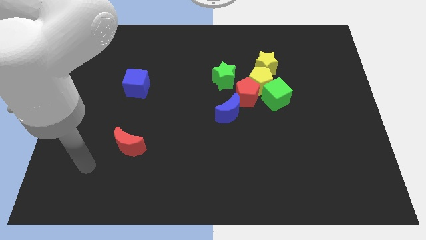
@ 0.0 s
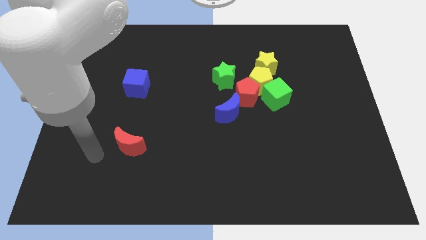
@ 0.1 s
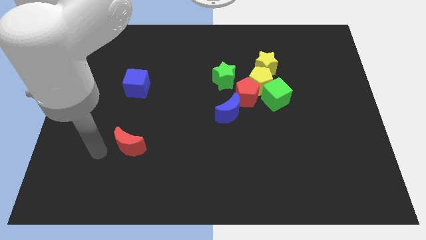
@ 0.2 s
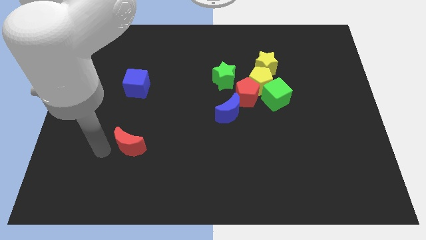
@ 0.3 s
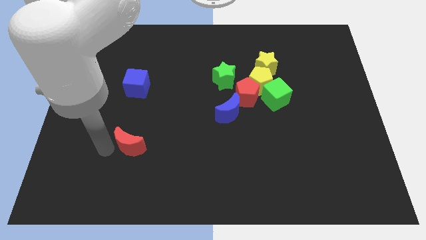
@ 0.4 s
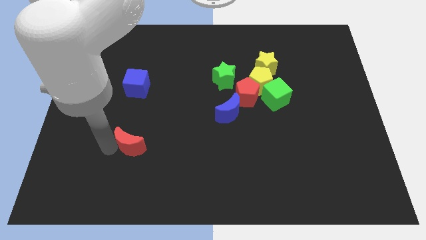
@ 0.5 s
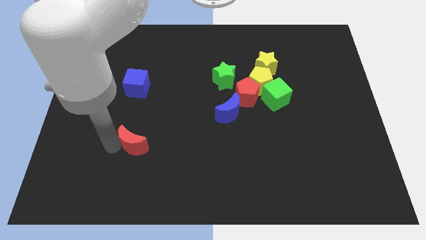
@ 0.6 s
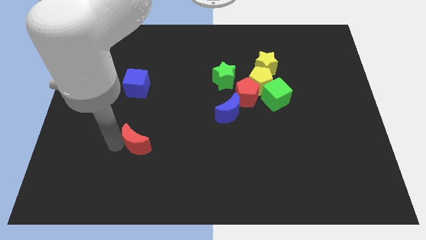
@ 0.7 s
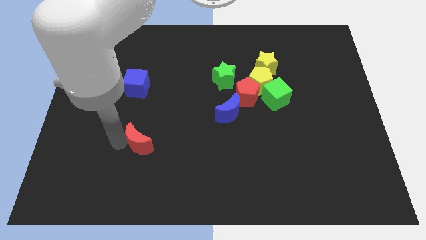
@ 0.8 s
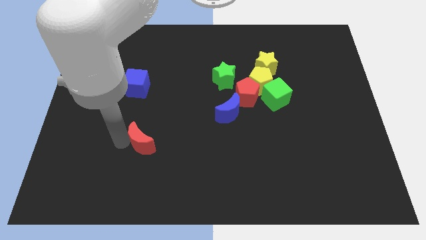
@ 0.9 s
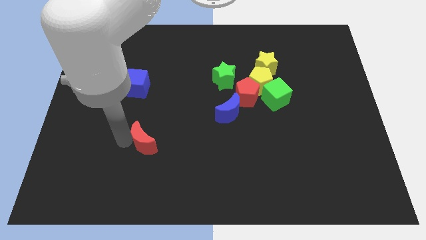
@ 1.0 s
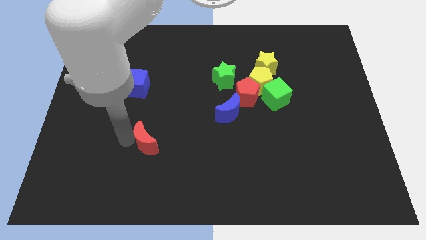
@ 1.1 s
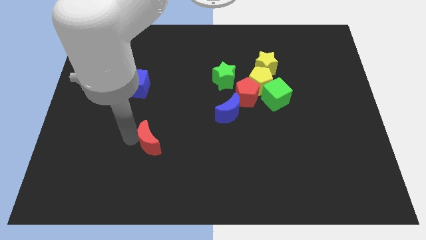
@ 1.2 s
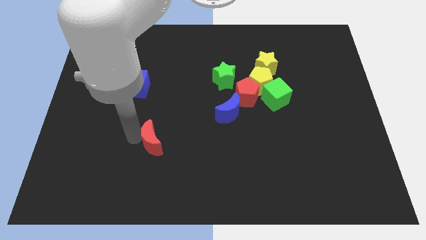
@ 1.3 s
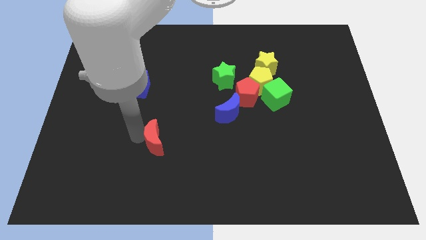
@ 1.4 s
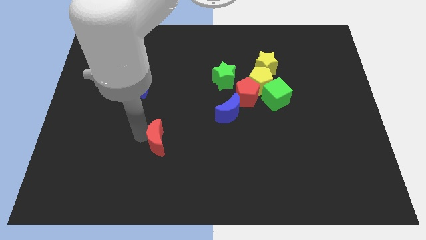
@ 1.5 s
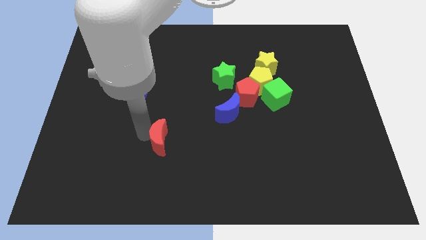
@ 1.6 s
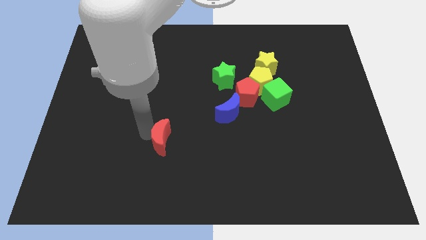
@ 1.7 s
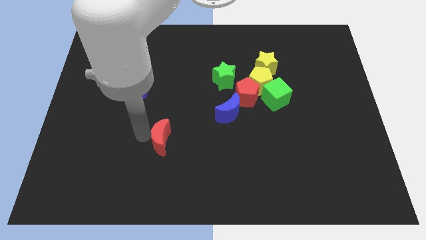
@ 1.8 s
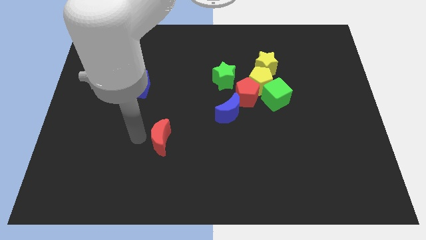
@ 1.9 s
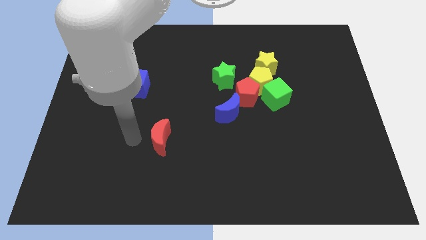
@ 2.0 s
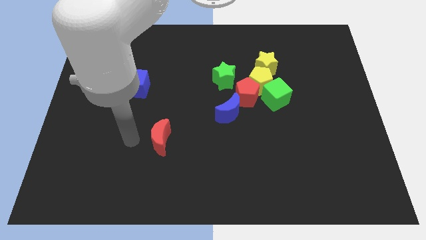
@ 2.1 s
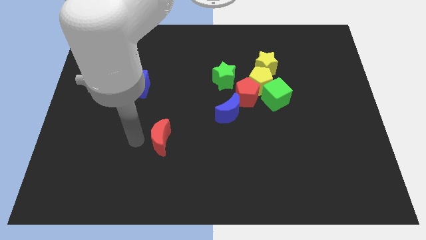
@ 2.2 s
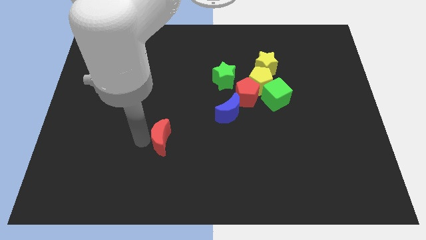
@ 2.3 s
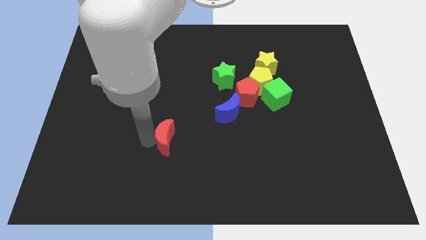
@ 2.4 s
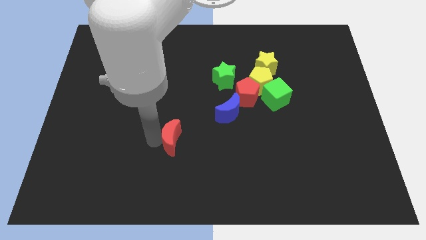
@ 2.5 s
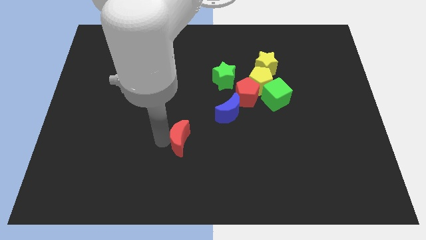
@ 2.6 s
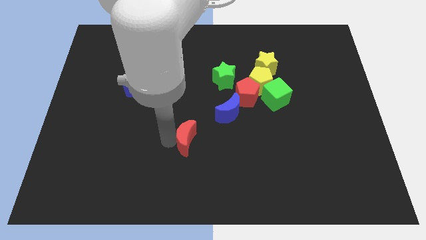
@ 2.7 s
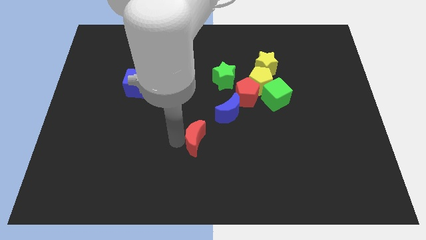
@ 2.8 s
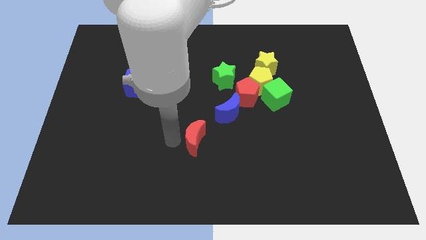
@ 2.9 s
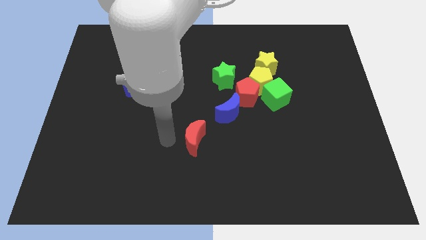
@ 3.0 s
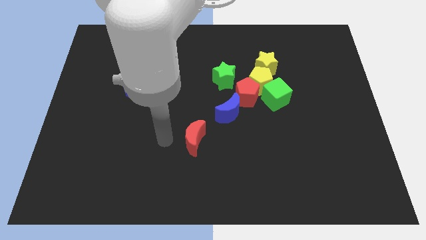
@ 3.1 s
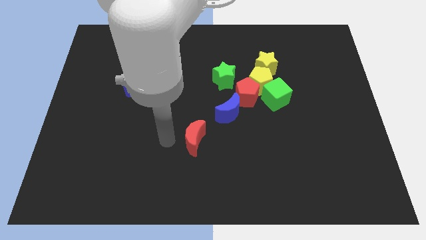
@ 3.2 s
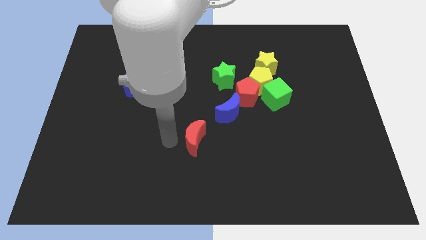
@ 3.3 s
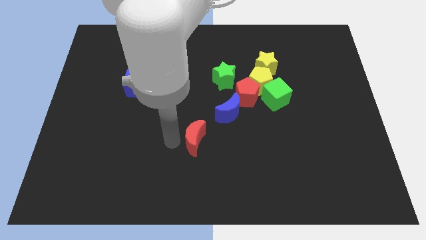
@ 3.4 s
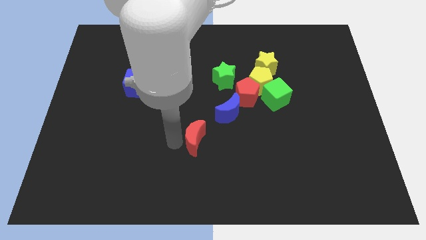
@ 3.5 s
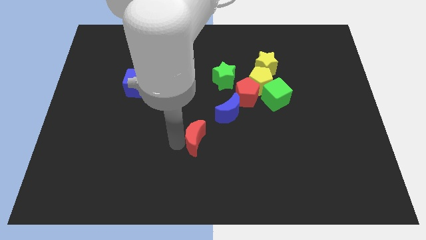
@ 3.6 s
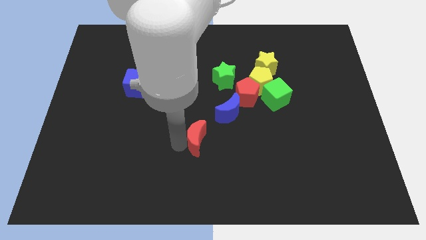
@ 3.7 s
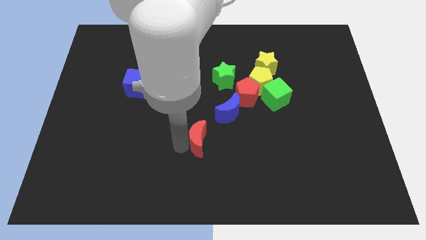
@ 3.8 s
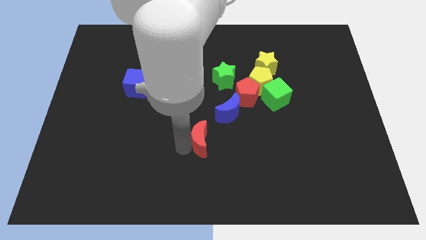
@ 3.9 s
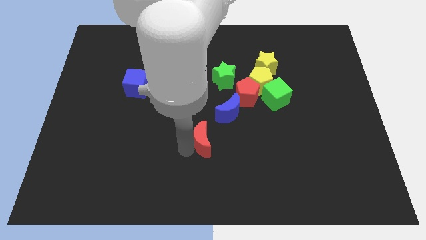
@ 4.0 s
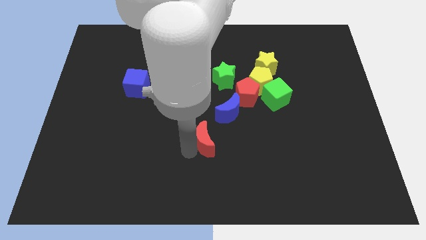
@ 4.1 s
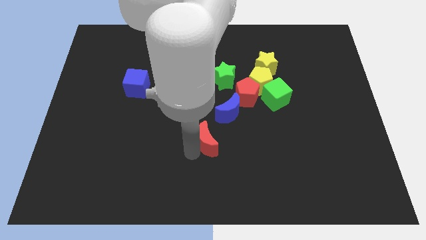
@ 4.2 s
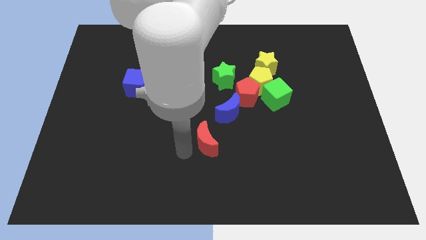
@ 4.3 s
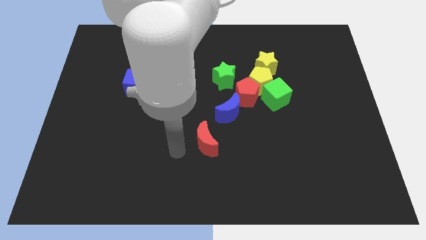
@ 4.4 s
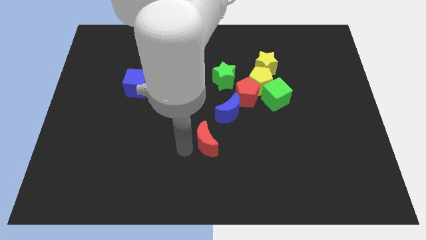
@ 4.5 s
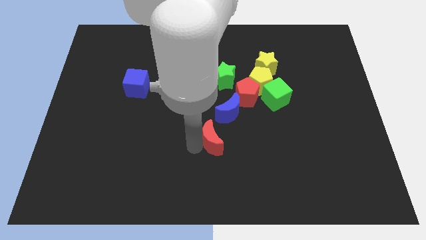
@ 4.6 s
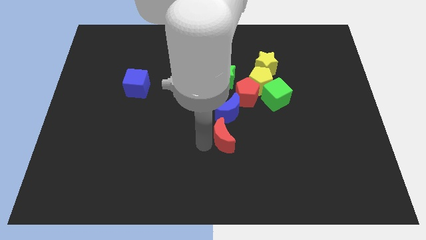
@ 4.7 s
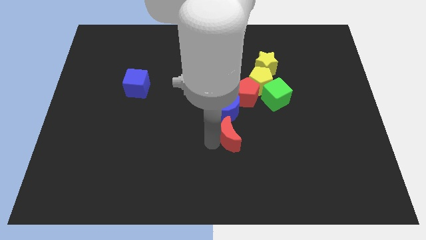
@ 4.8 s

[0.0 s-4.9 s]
slide the red moon to the bottom side of the red pentagon

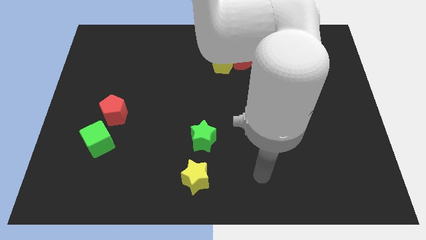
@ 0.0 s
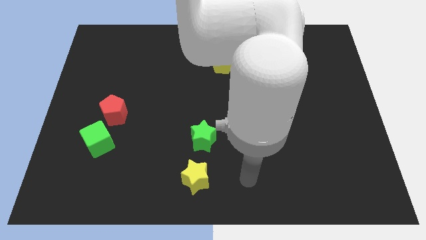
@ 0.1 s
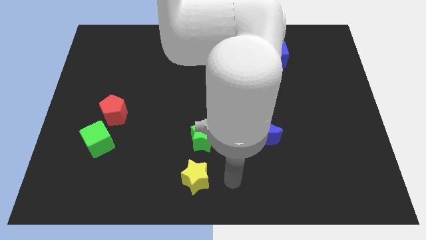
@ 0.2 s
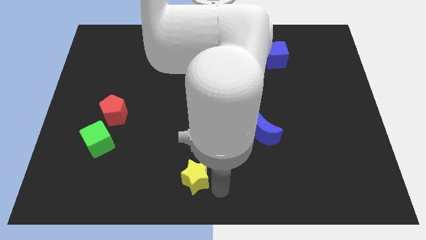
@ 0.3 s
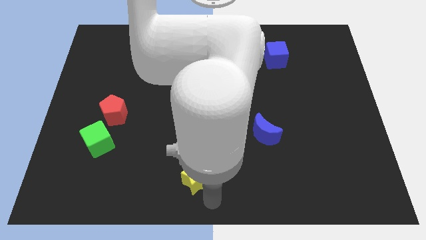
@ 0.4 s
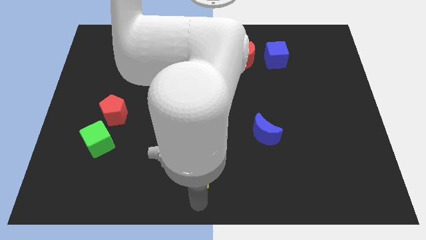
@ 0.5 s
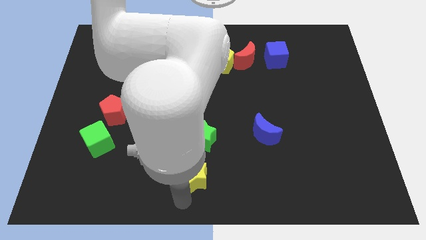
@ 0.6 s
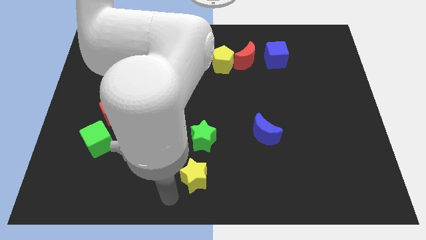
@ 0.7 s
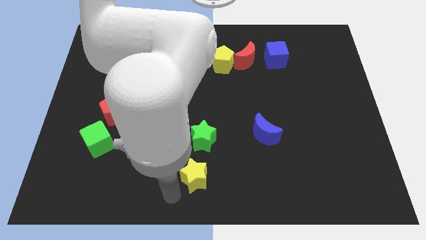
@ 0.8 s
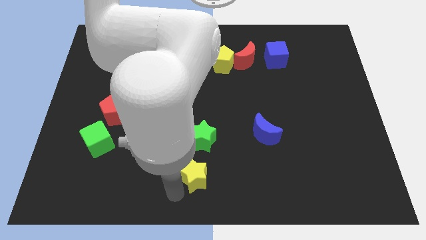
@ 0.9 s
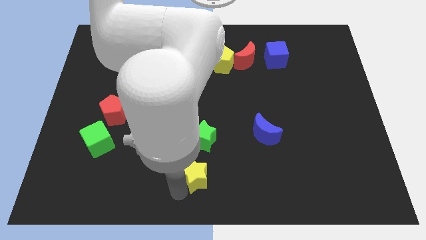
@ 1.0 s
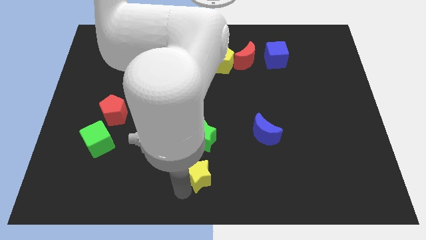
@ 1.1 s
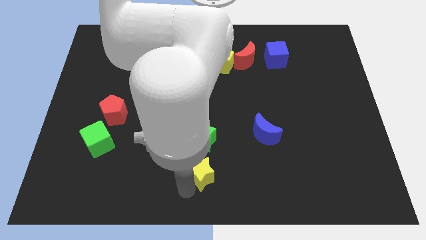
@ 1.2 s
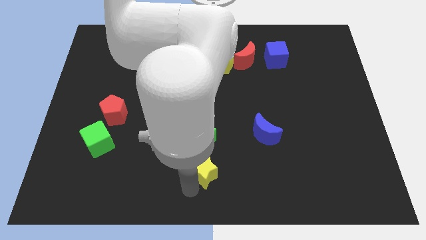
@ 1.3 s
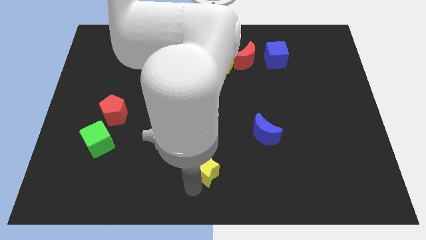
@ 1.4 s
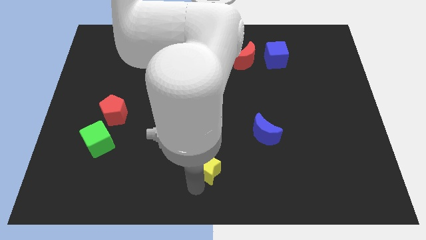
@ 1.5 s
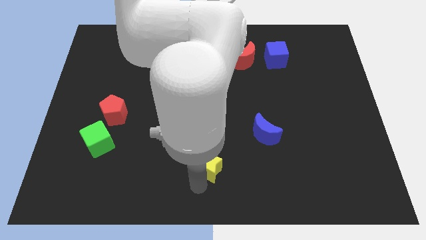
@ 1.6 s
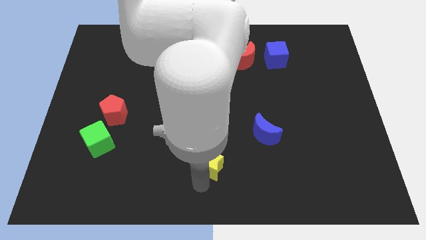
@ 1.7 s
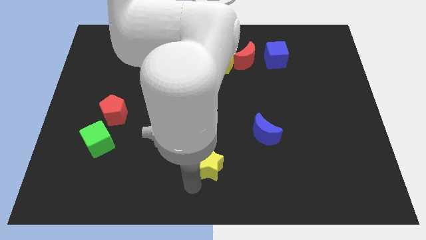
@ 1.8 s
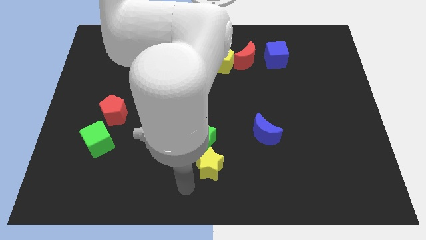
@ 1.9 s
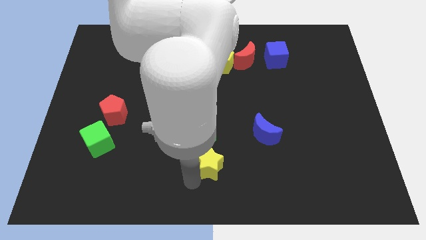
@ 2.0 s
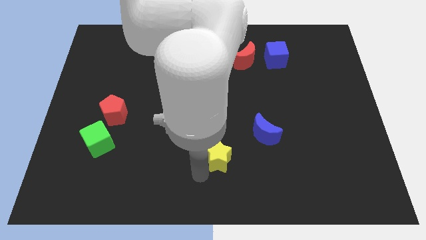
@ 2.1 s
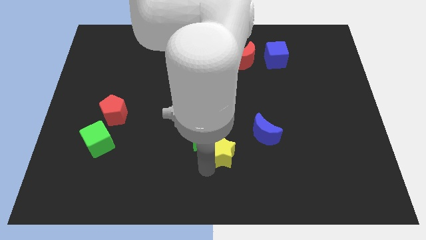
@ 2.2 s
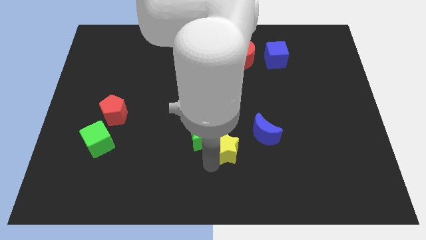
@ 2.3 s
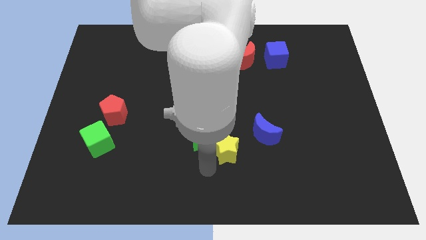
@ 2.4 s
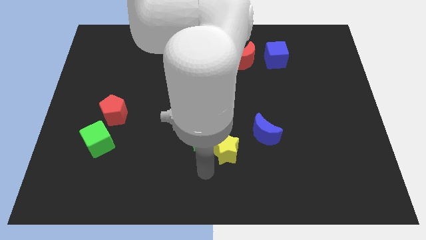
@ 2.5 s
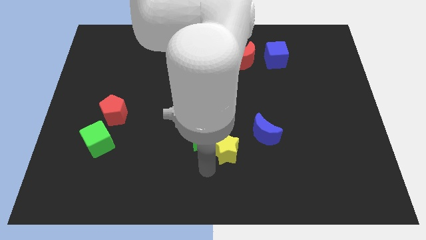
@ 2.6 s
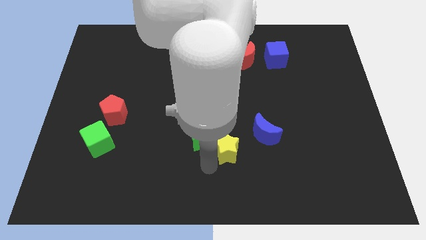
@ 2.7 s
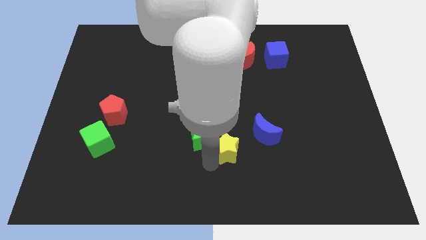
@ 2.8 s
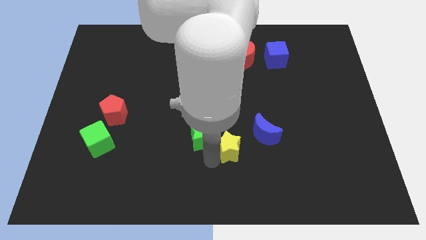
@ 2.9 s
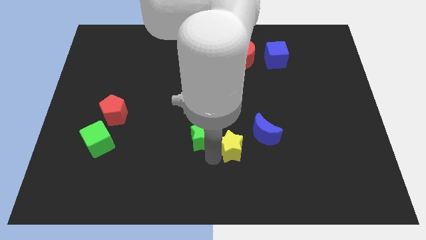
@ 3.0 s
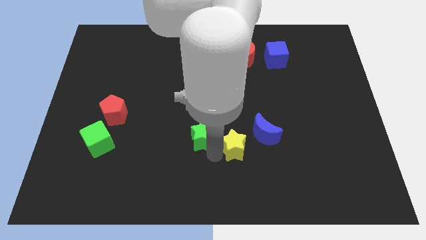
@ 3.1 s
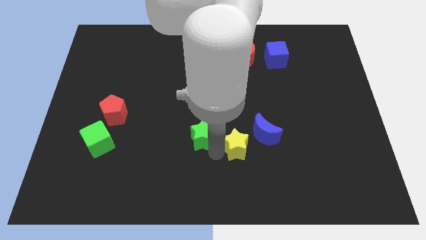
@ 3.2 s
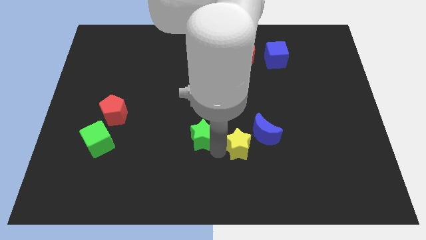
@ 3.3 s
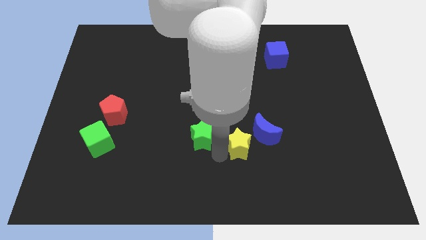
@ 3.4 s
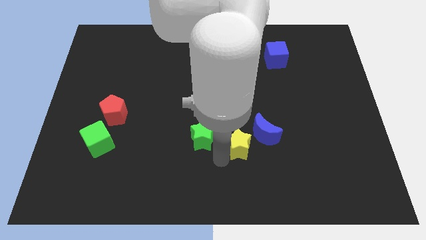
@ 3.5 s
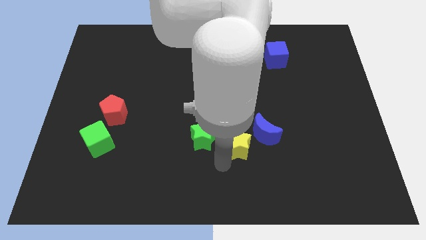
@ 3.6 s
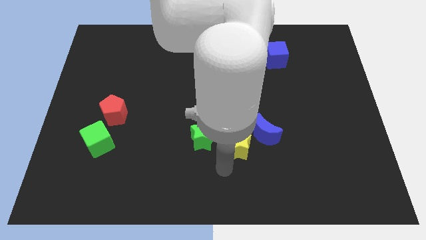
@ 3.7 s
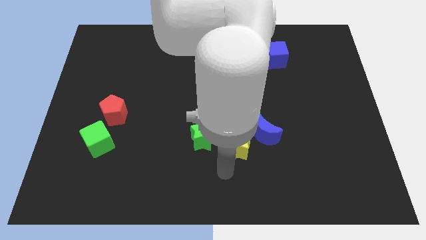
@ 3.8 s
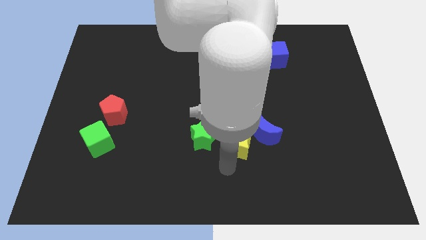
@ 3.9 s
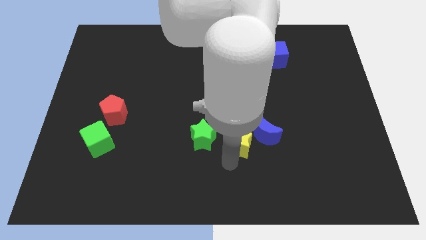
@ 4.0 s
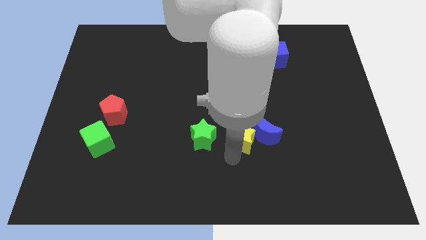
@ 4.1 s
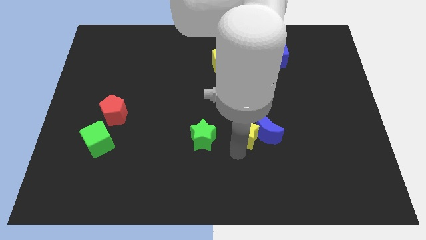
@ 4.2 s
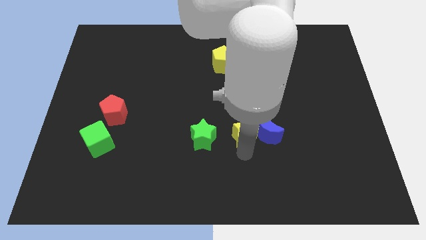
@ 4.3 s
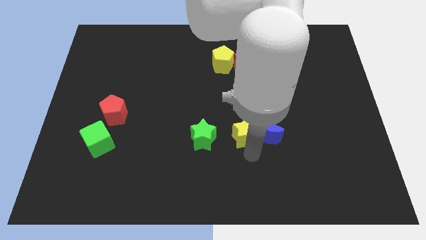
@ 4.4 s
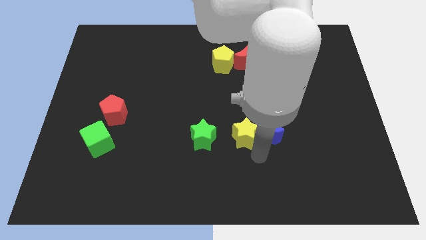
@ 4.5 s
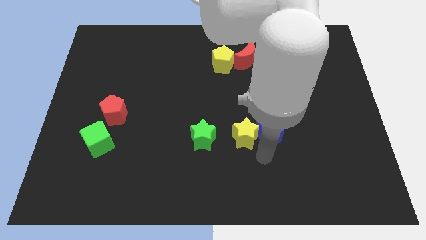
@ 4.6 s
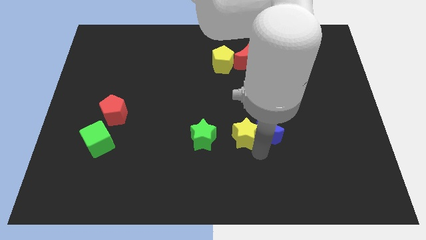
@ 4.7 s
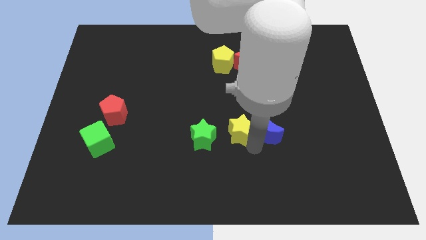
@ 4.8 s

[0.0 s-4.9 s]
push the yellow star to the top right of the green star
